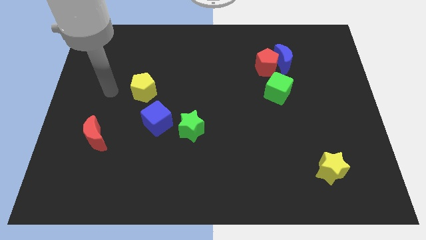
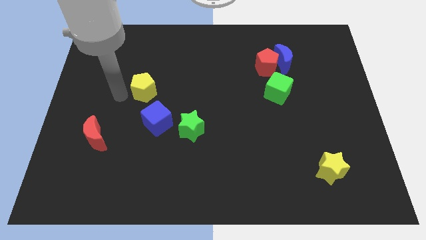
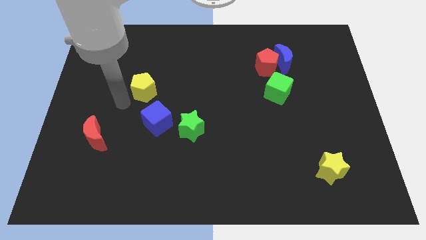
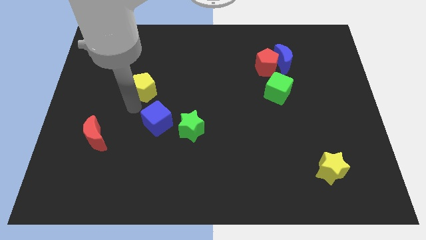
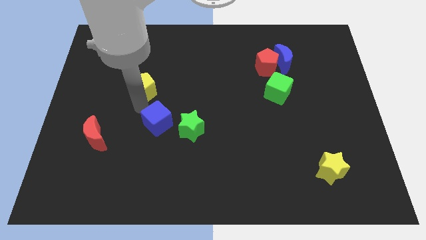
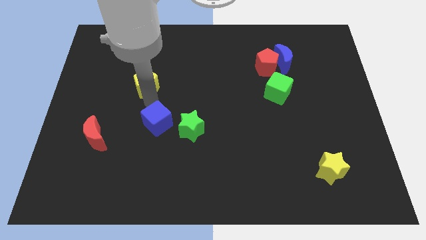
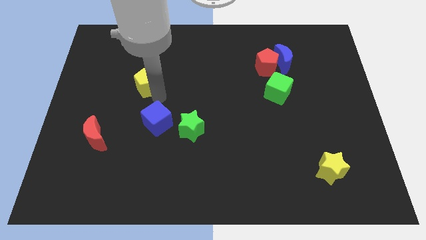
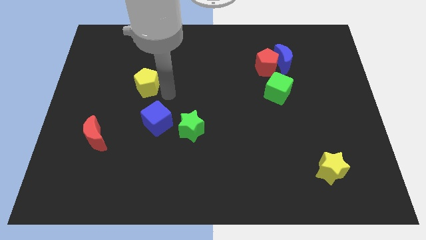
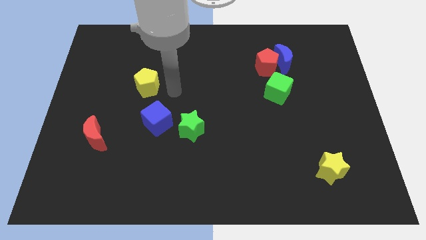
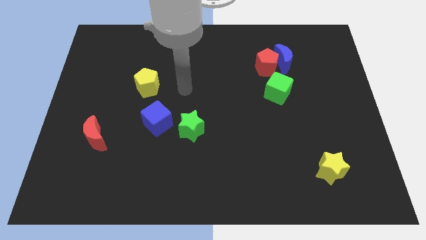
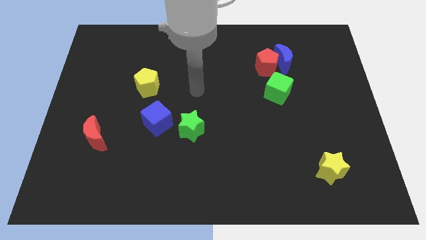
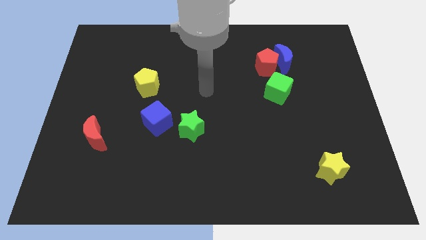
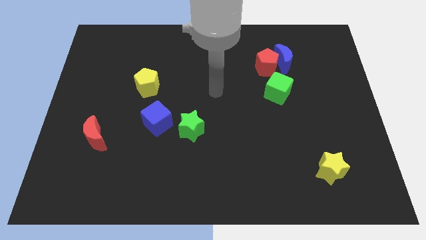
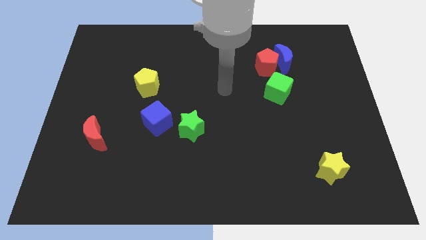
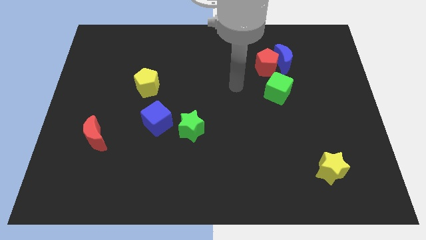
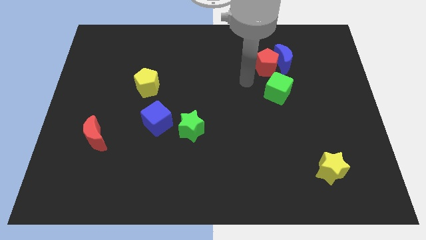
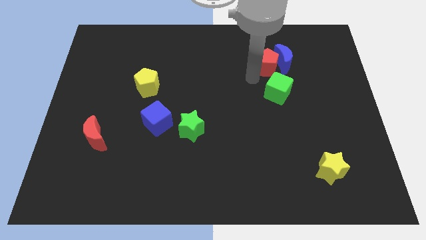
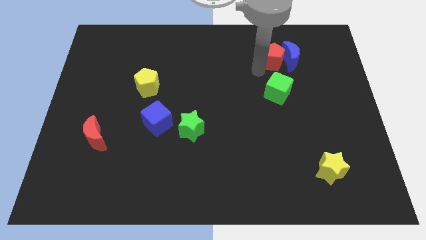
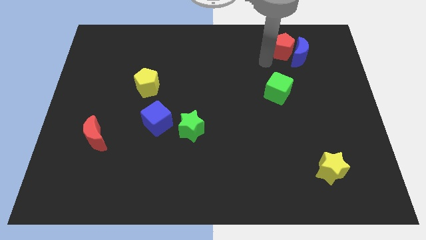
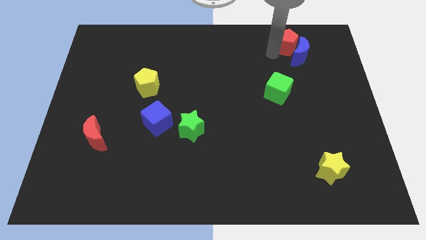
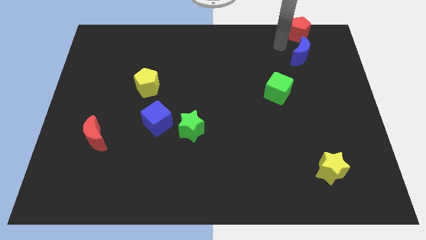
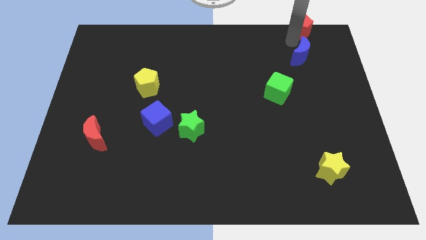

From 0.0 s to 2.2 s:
pull the blue moon apart from the red pentagon

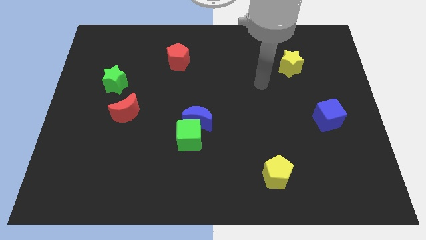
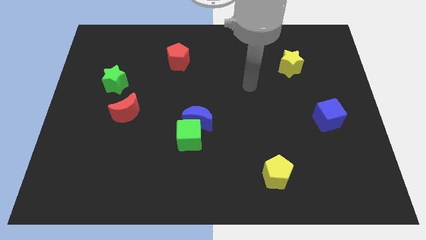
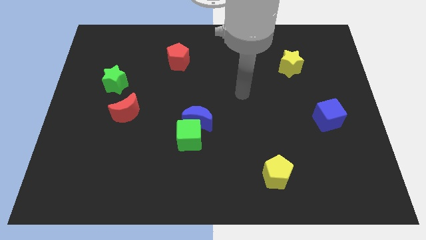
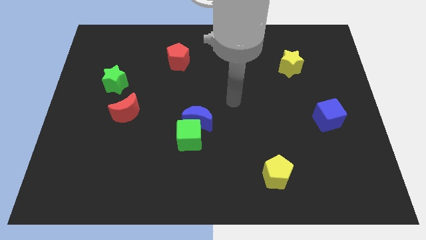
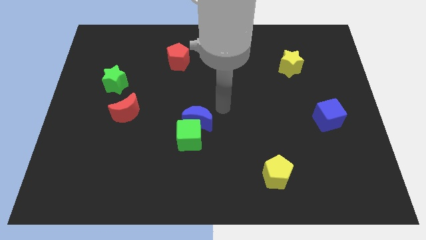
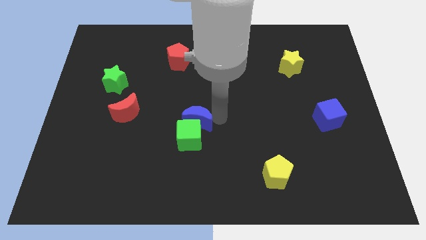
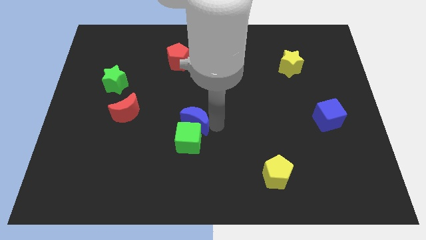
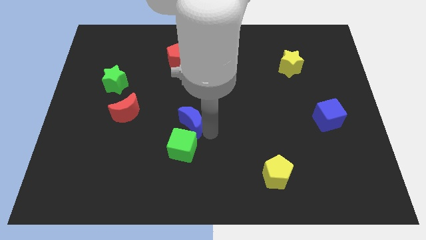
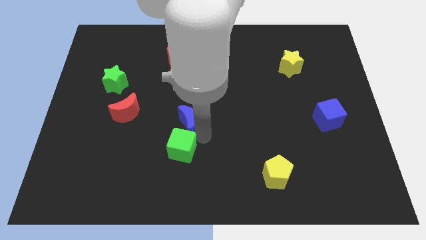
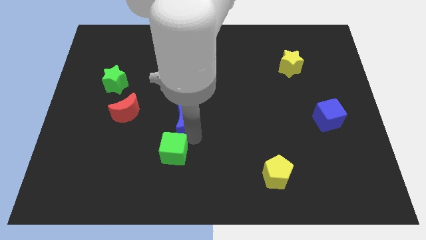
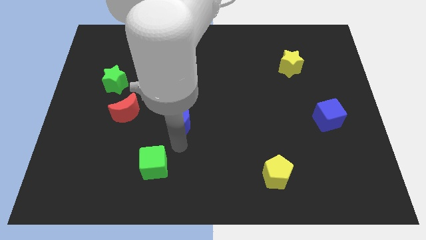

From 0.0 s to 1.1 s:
move the blue moon away from the green cube

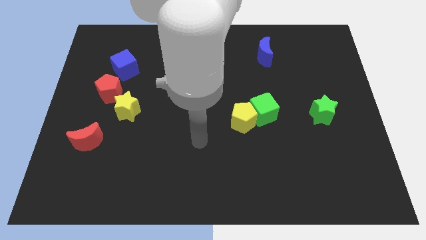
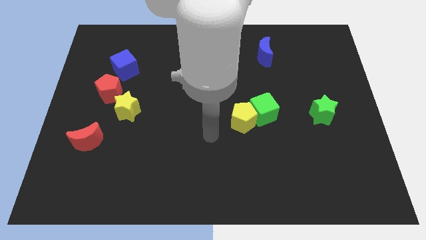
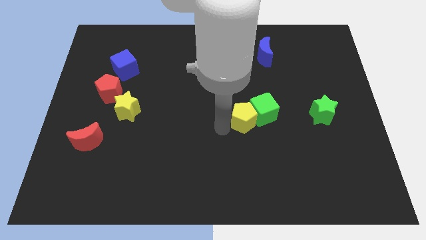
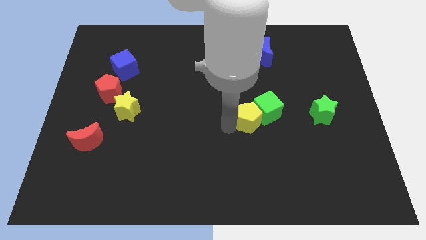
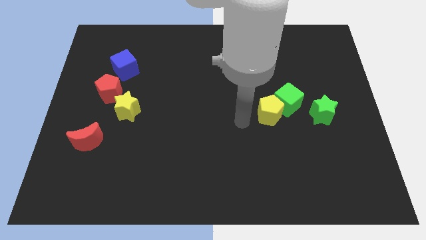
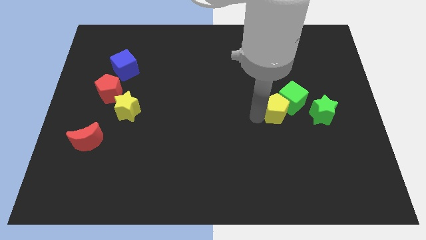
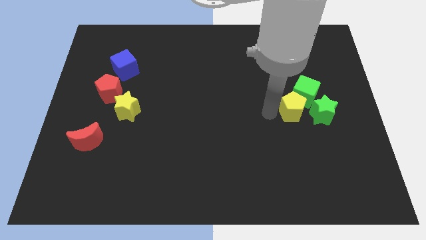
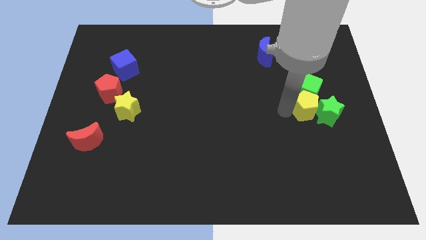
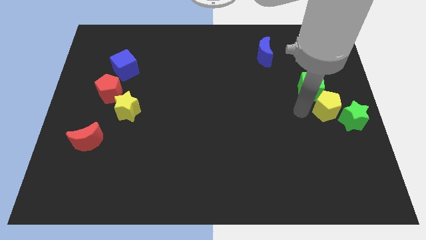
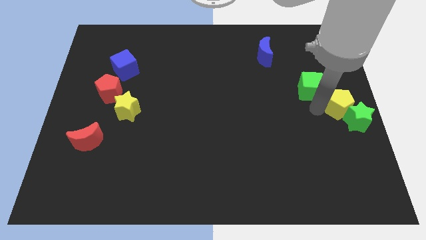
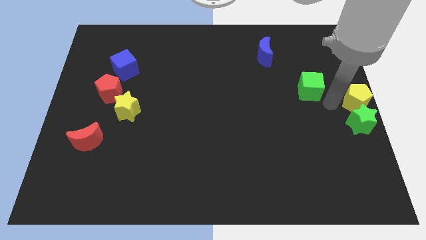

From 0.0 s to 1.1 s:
move the green cube away from the yellow pentagon

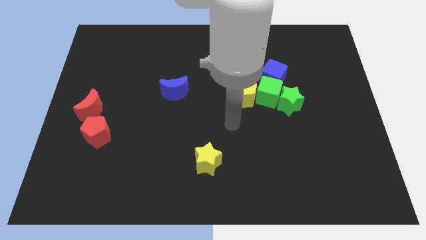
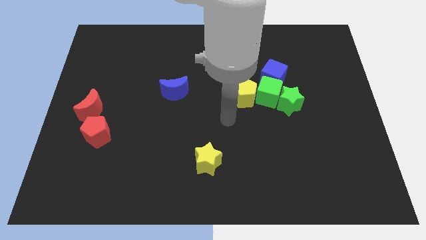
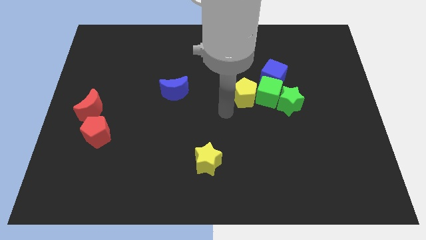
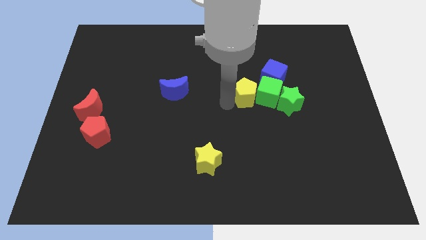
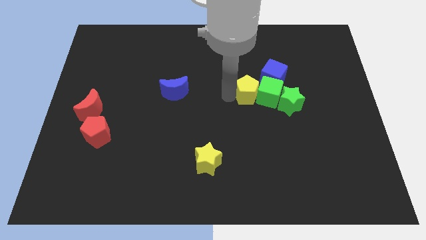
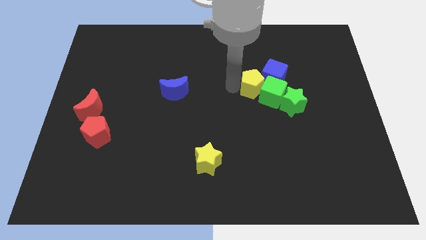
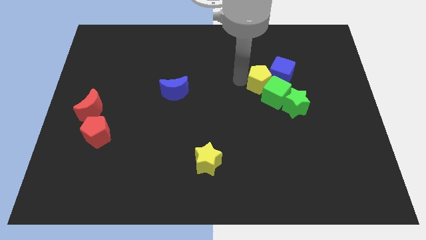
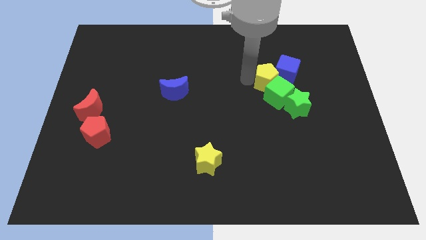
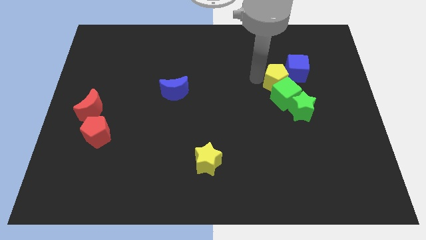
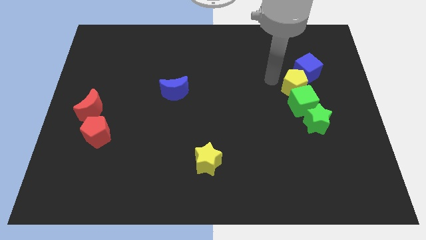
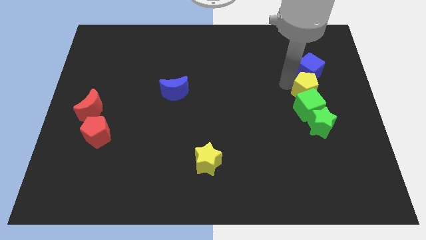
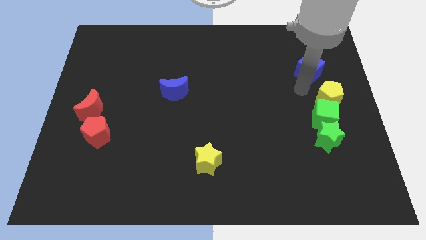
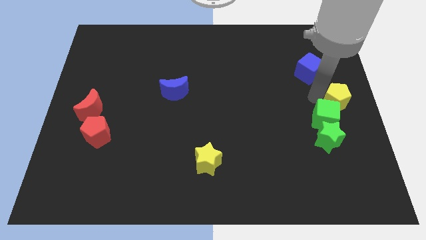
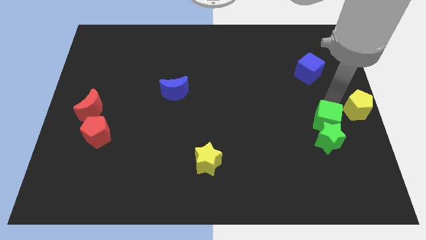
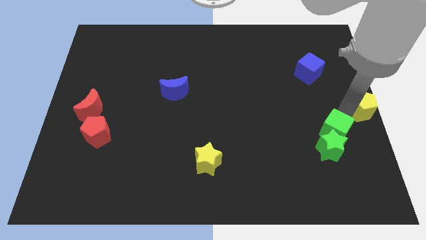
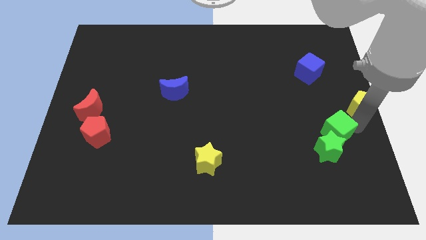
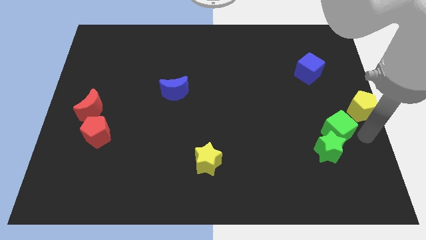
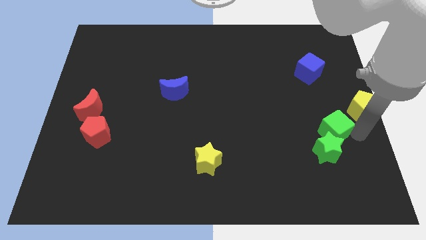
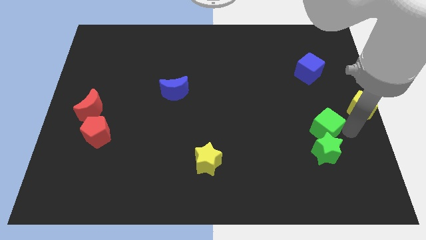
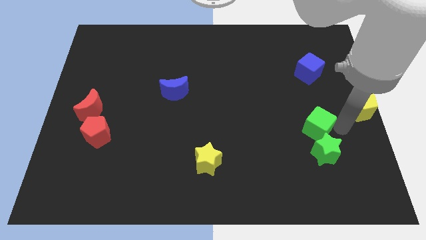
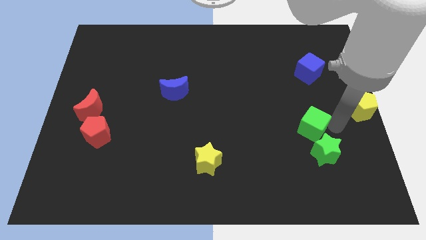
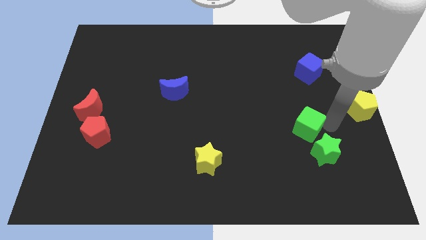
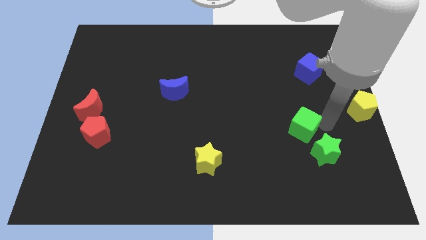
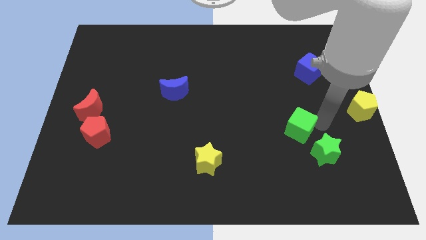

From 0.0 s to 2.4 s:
separate the green cube from the clump

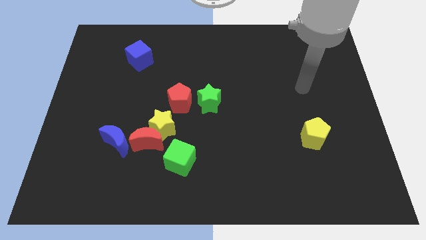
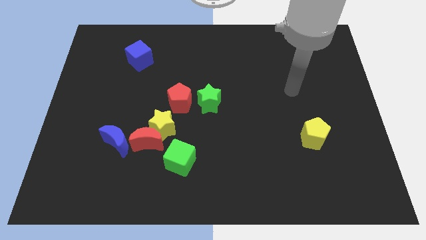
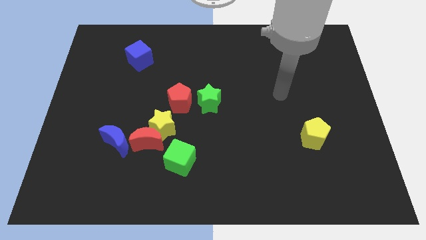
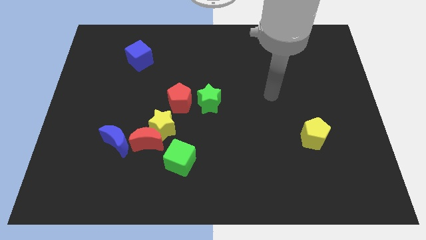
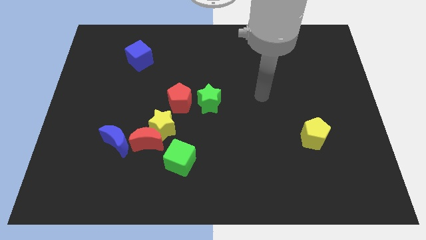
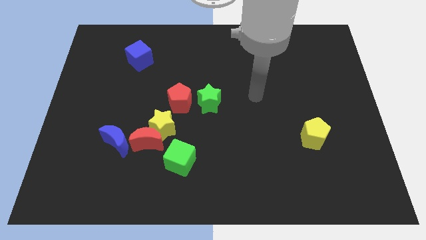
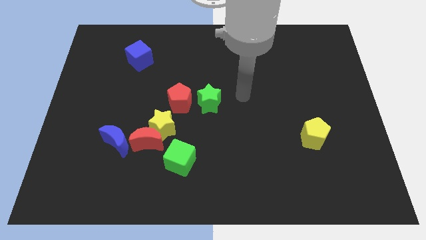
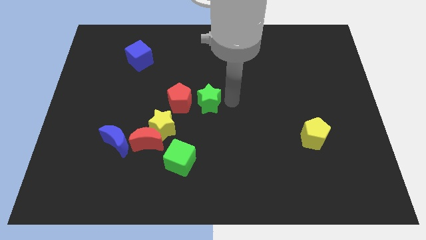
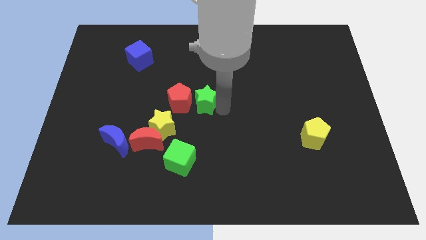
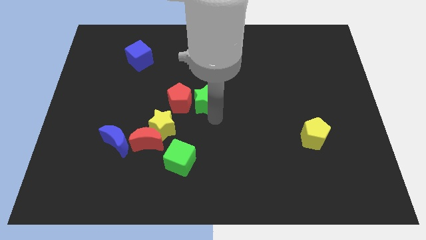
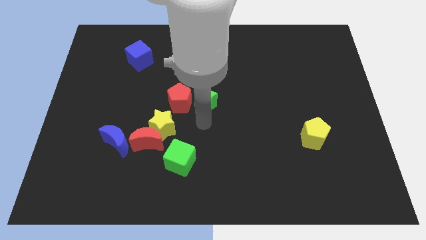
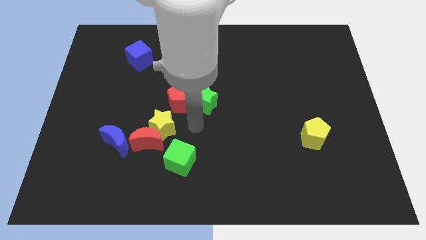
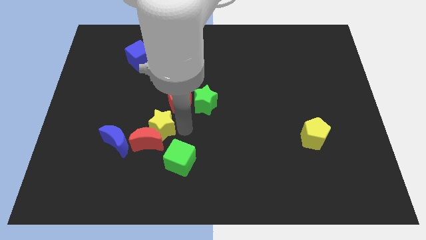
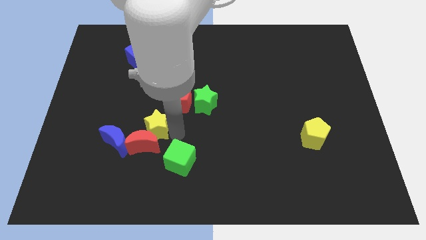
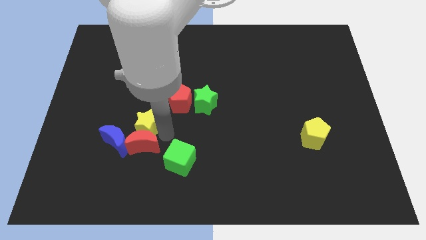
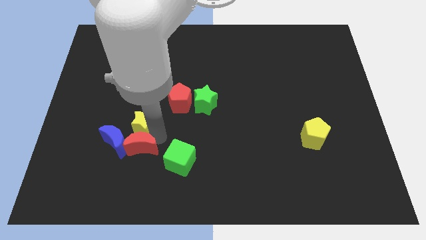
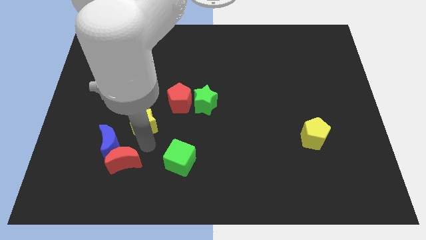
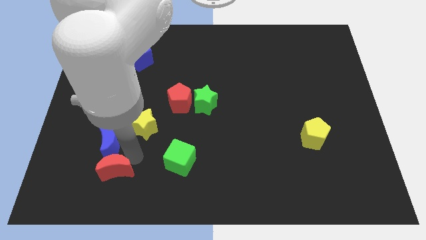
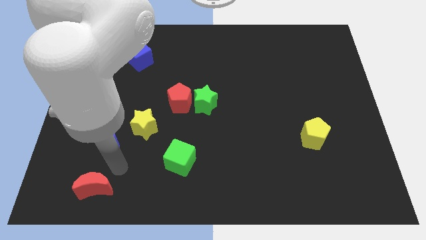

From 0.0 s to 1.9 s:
separate the blue moon from the red moon

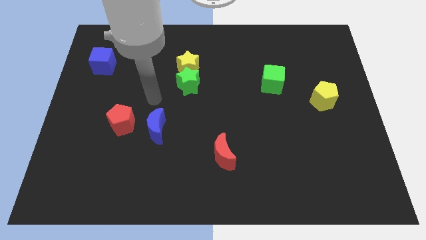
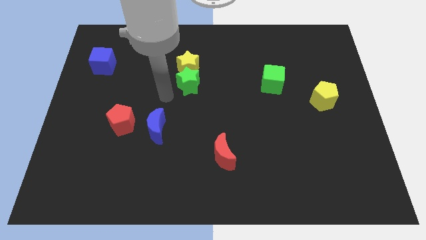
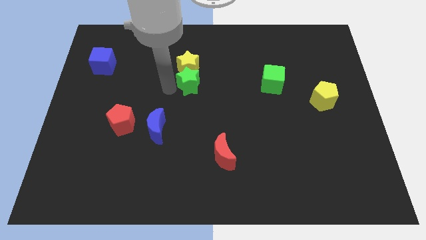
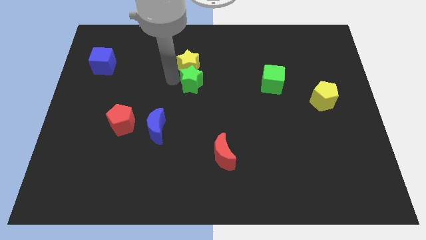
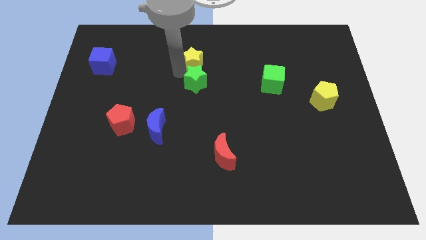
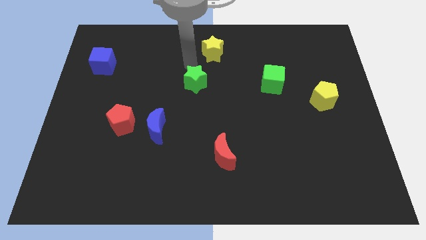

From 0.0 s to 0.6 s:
separate the green star from the yellow star

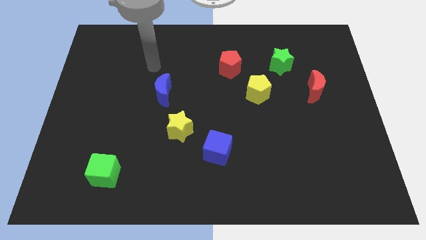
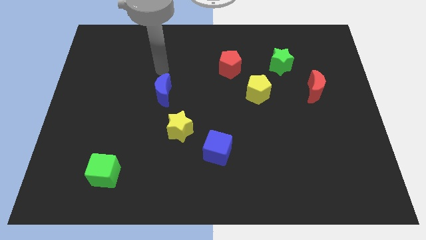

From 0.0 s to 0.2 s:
separate the blue cube from the yellow star
